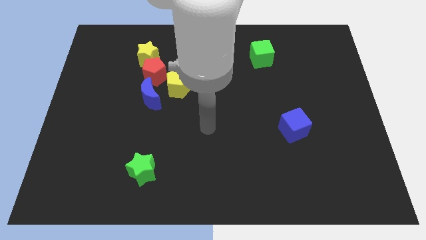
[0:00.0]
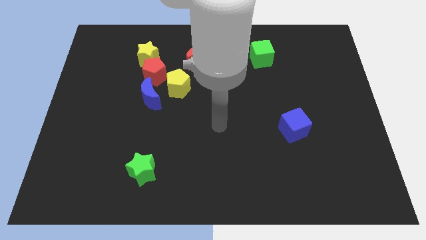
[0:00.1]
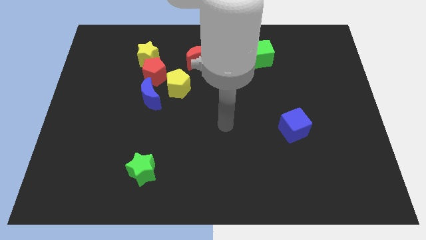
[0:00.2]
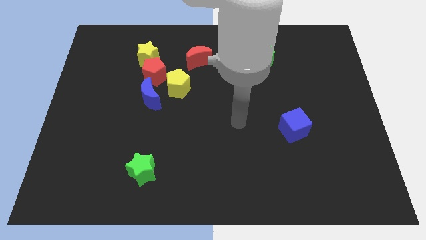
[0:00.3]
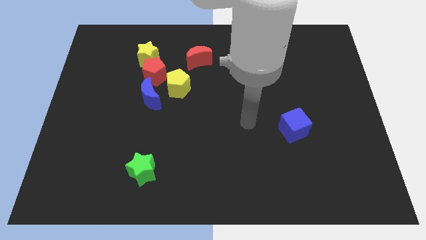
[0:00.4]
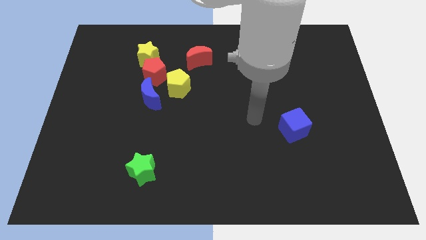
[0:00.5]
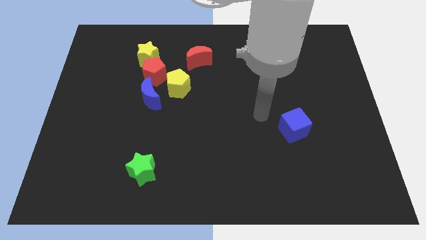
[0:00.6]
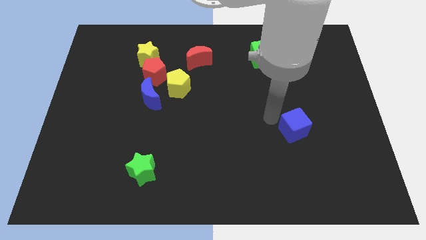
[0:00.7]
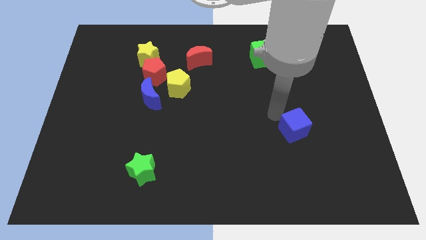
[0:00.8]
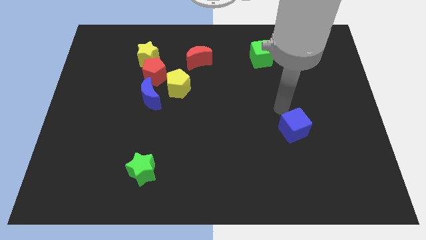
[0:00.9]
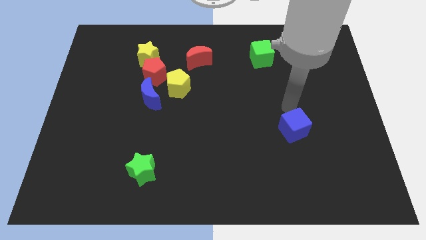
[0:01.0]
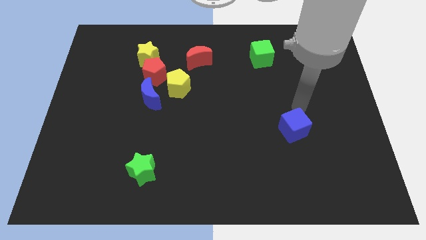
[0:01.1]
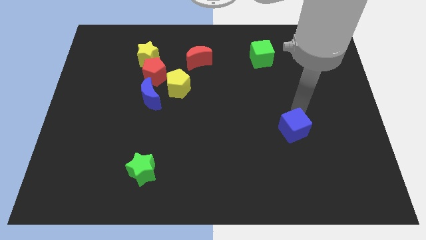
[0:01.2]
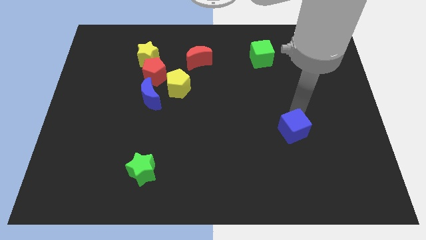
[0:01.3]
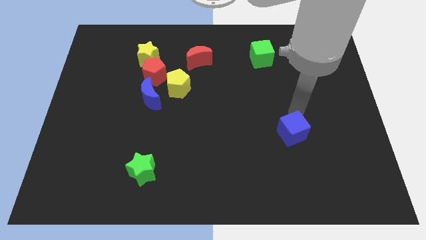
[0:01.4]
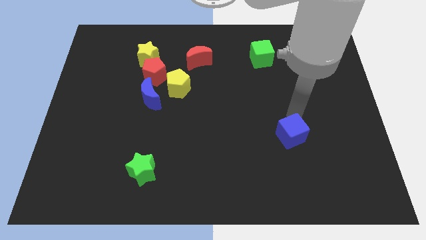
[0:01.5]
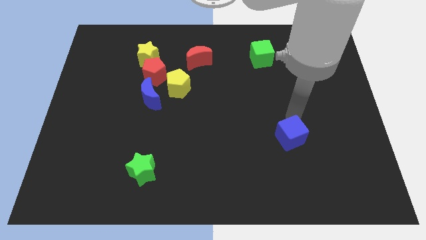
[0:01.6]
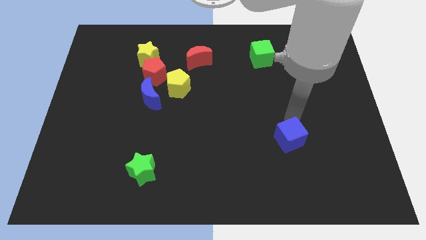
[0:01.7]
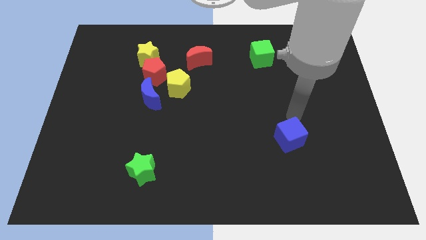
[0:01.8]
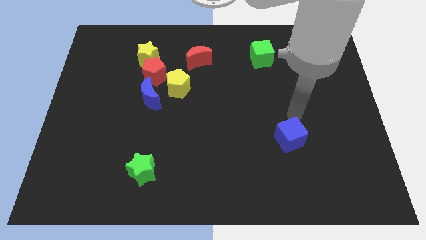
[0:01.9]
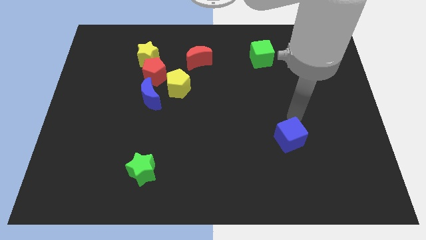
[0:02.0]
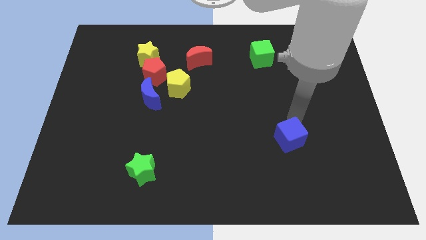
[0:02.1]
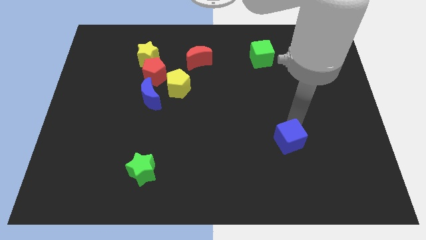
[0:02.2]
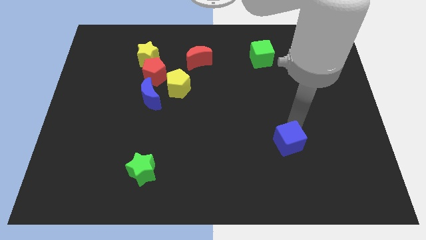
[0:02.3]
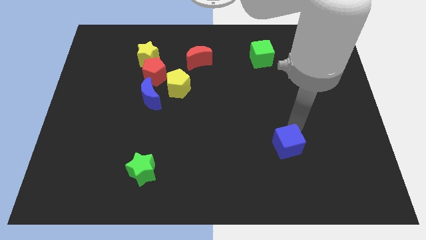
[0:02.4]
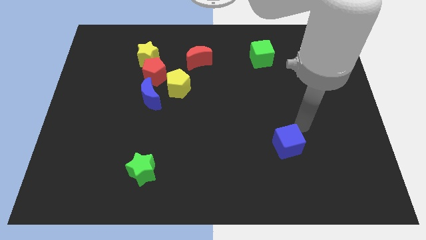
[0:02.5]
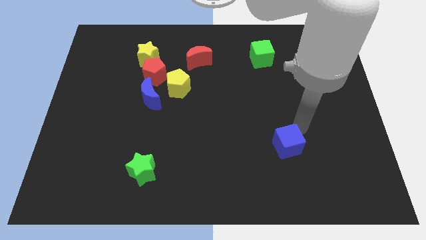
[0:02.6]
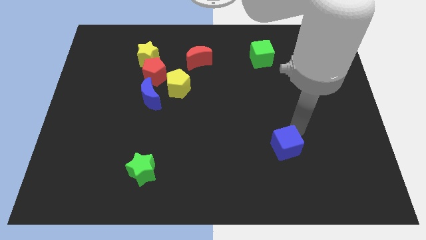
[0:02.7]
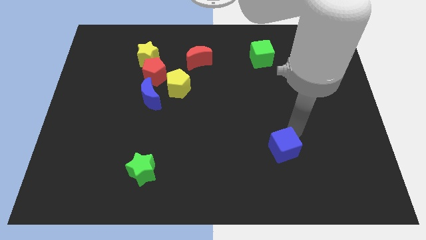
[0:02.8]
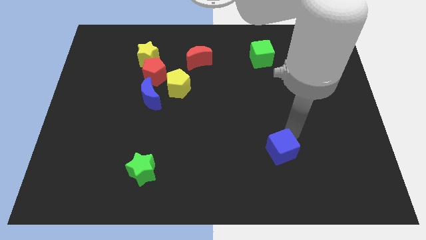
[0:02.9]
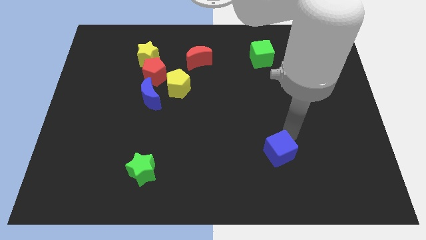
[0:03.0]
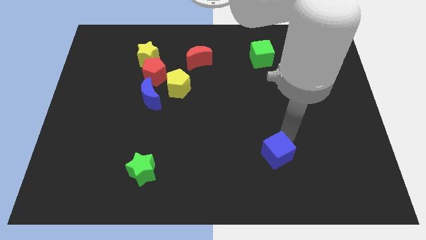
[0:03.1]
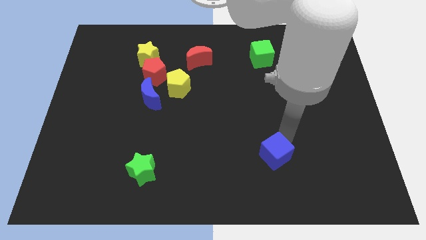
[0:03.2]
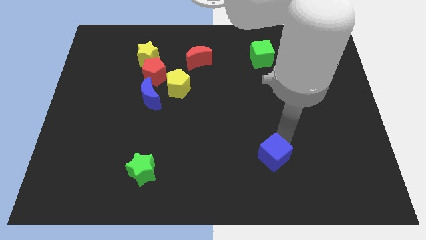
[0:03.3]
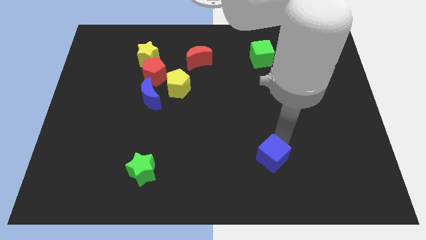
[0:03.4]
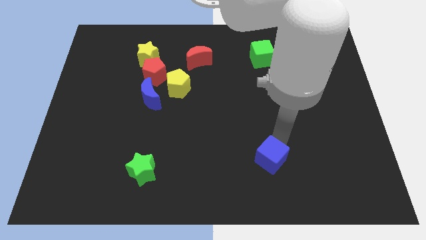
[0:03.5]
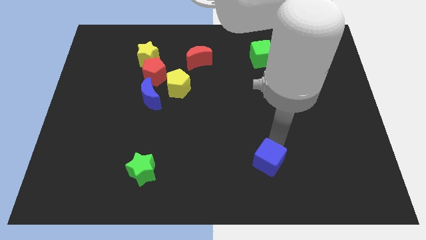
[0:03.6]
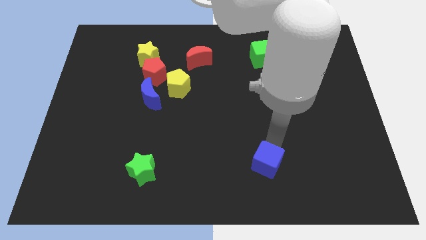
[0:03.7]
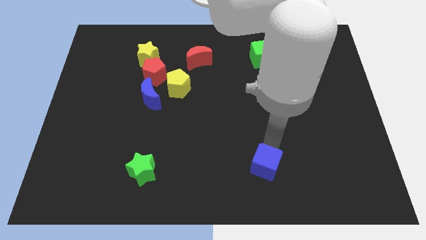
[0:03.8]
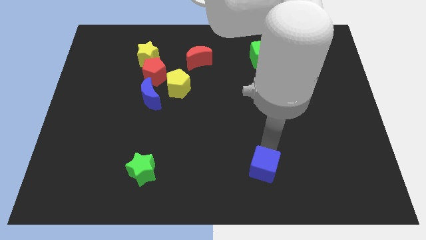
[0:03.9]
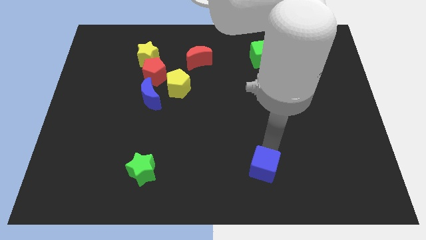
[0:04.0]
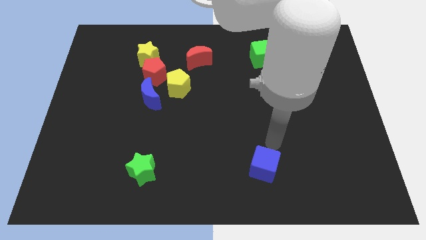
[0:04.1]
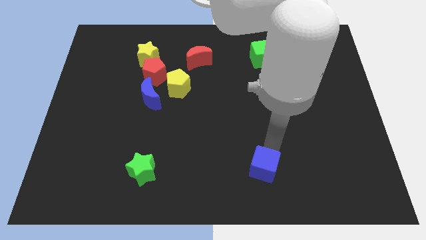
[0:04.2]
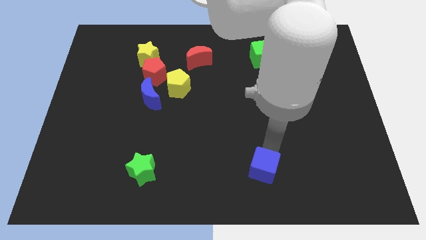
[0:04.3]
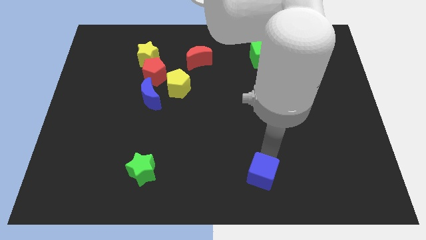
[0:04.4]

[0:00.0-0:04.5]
move the blue cube to the bottom

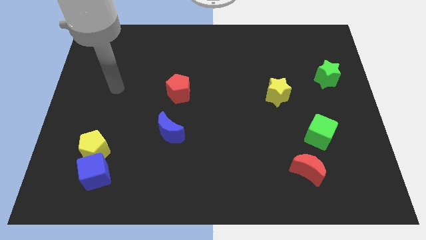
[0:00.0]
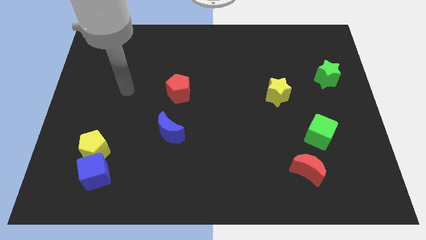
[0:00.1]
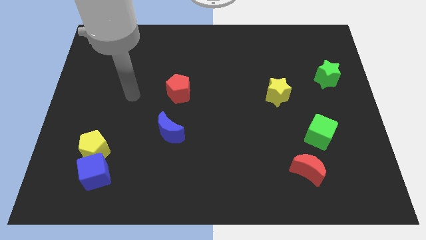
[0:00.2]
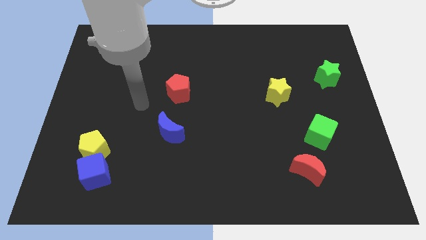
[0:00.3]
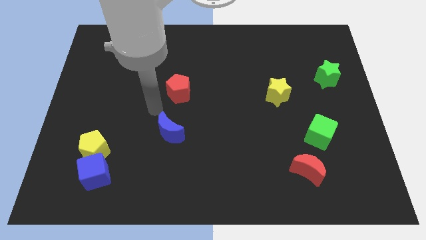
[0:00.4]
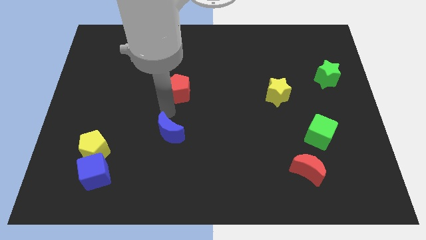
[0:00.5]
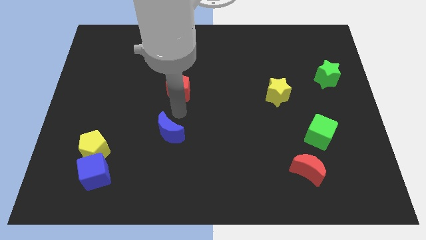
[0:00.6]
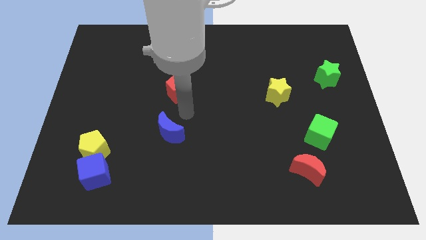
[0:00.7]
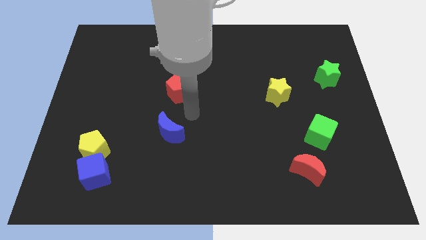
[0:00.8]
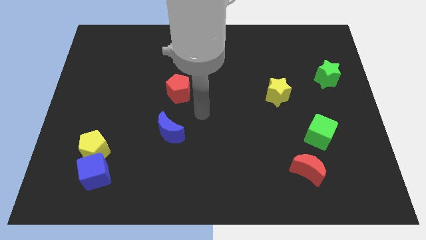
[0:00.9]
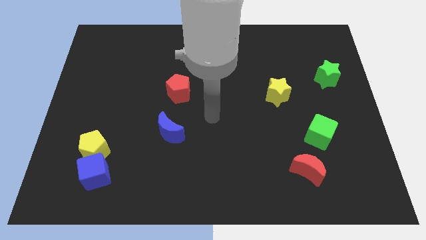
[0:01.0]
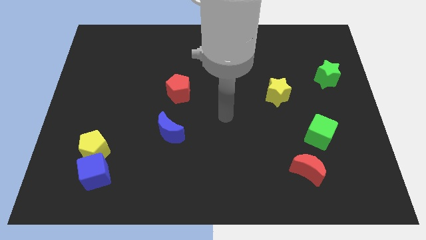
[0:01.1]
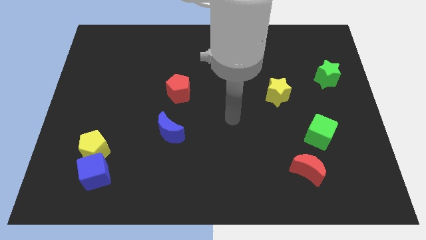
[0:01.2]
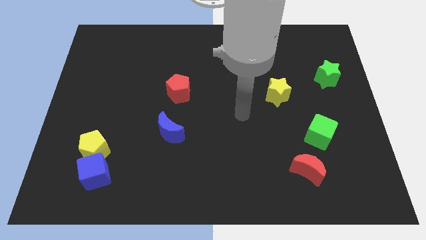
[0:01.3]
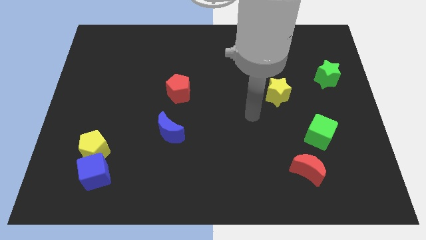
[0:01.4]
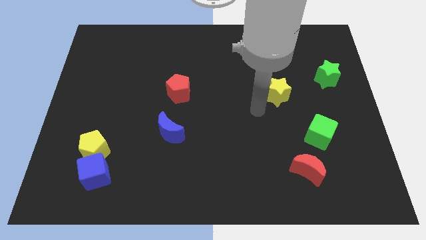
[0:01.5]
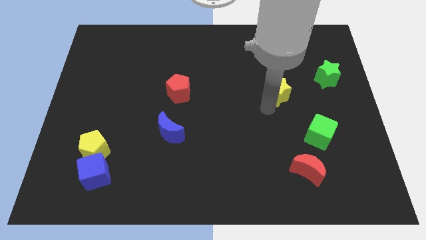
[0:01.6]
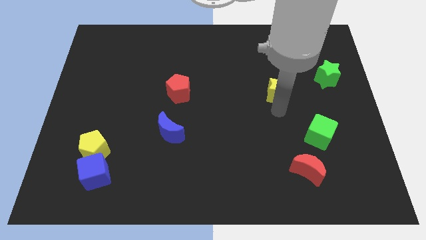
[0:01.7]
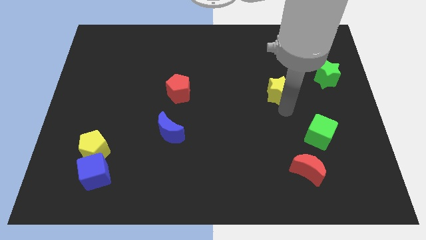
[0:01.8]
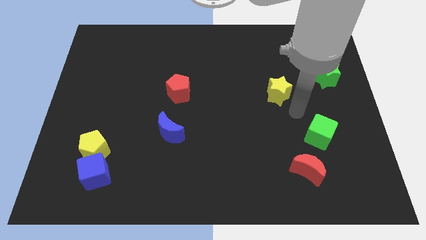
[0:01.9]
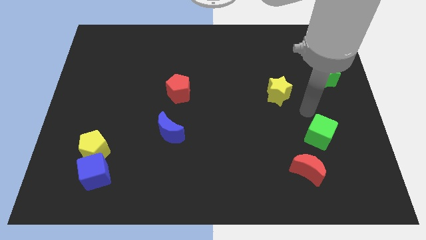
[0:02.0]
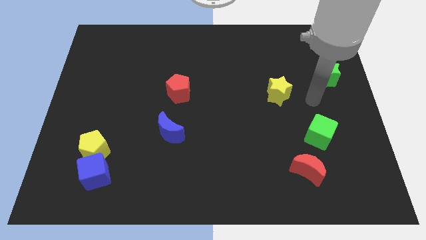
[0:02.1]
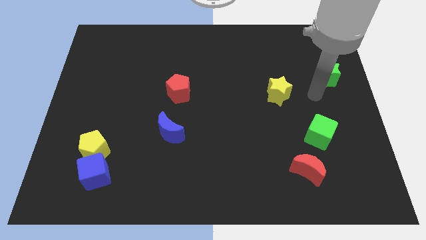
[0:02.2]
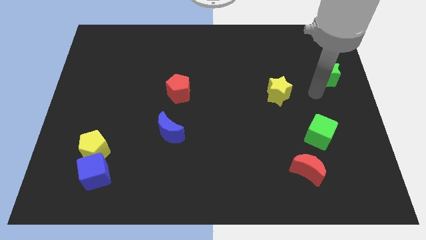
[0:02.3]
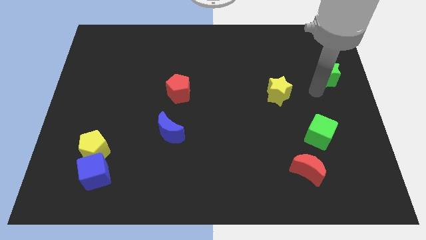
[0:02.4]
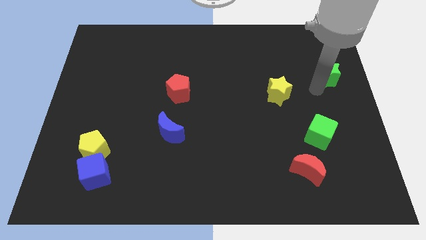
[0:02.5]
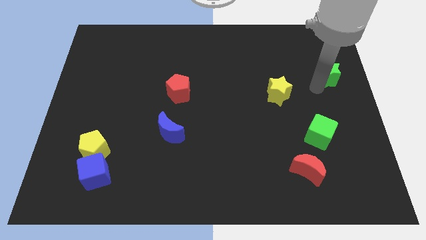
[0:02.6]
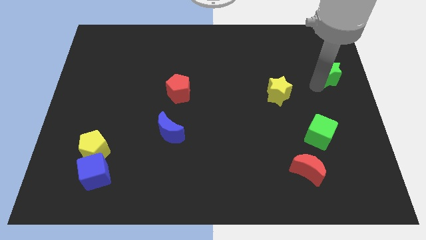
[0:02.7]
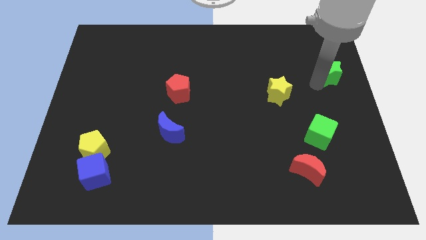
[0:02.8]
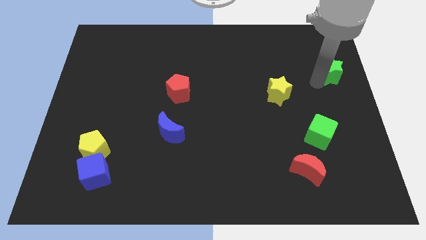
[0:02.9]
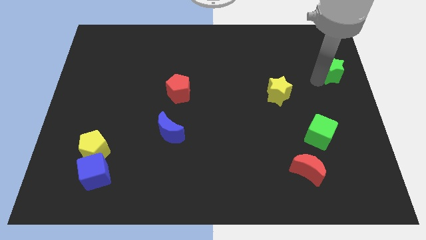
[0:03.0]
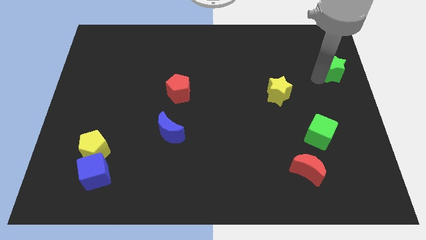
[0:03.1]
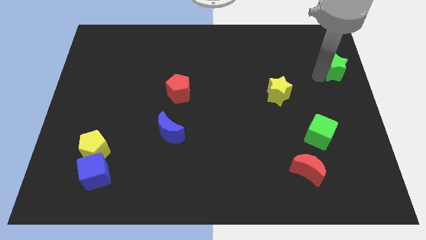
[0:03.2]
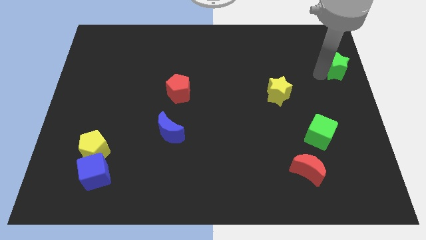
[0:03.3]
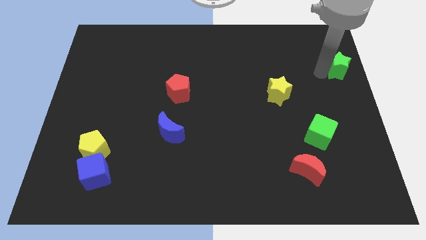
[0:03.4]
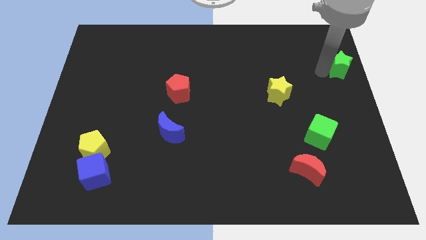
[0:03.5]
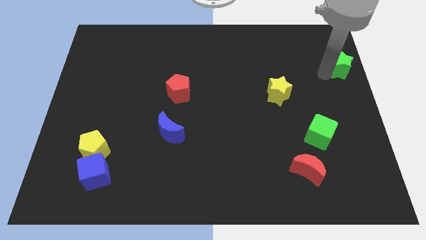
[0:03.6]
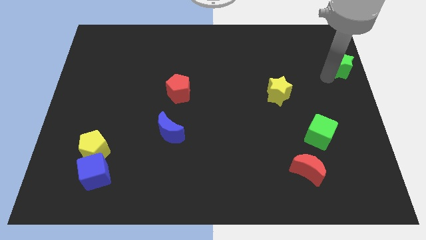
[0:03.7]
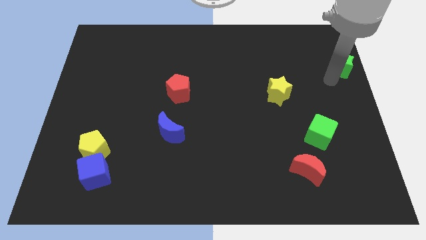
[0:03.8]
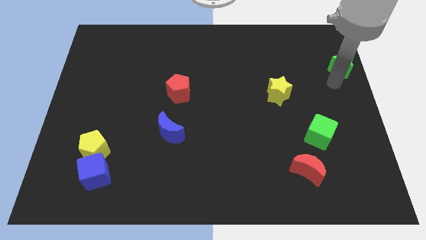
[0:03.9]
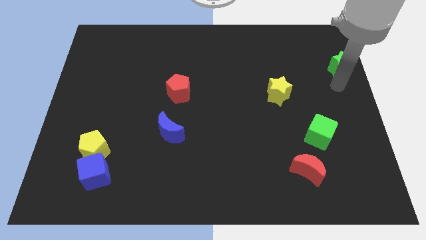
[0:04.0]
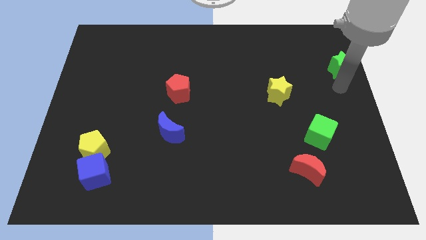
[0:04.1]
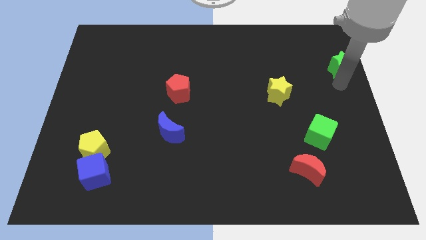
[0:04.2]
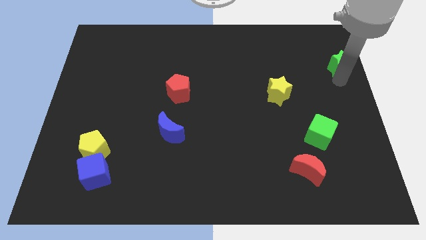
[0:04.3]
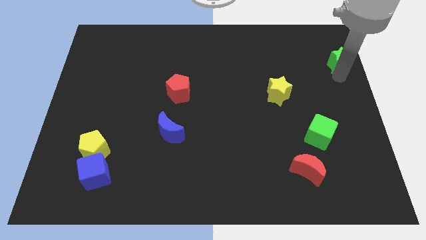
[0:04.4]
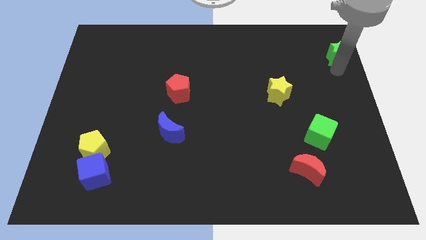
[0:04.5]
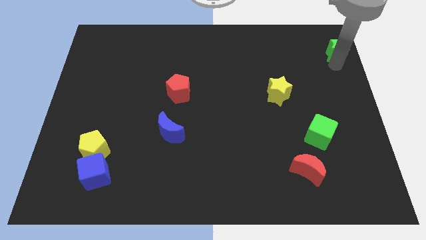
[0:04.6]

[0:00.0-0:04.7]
put the green star to the top right corner
